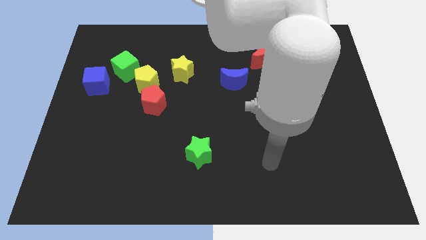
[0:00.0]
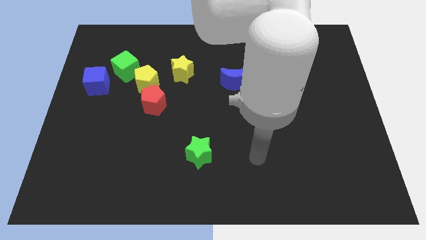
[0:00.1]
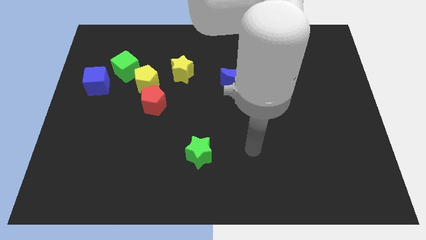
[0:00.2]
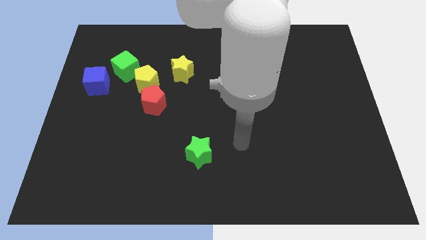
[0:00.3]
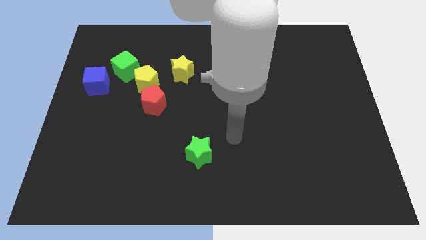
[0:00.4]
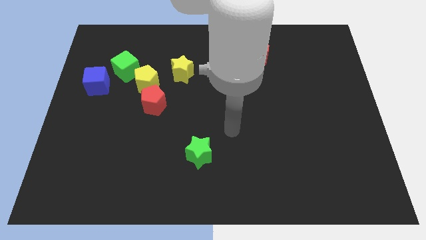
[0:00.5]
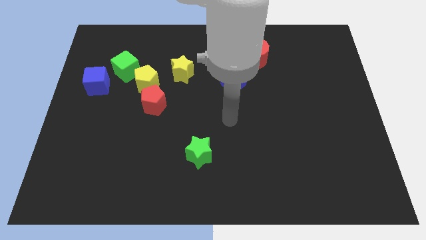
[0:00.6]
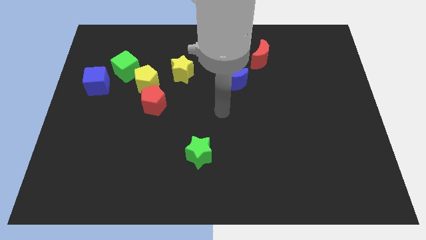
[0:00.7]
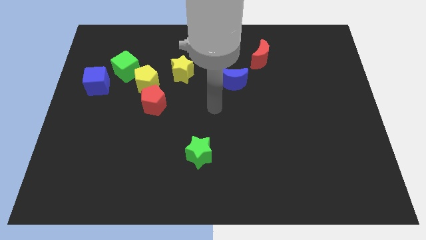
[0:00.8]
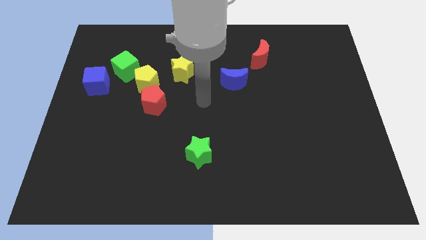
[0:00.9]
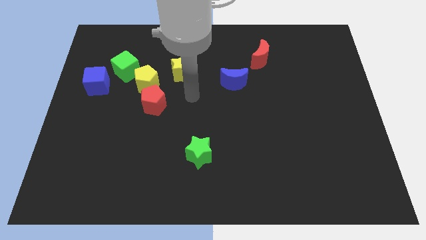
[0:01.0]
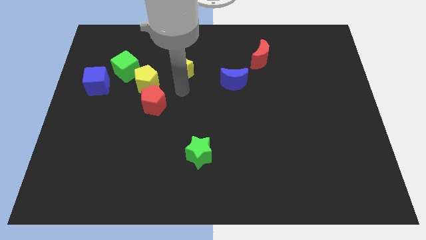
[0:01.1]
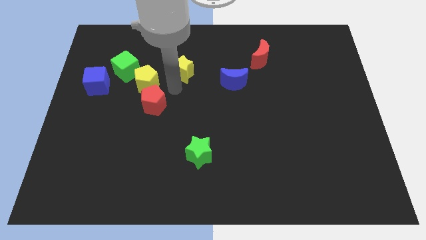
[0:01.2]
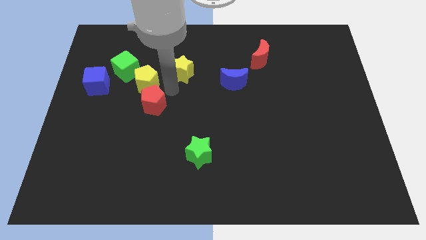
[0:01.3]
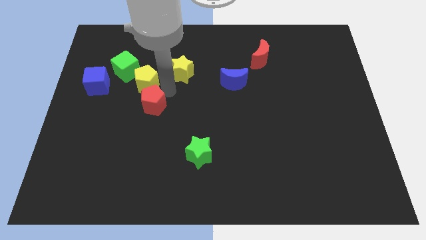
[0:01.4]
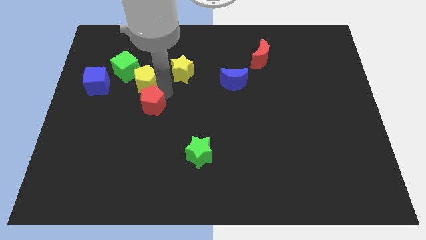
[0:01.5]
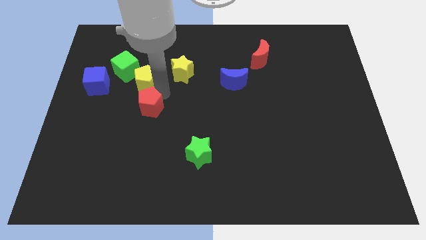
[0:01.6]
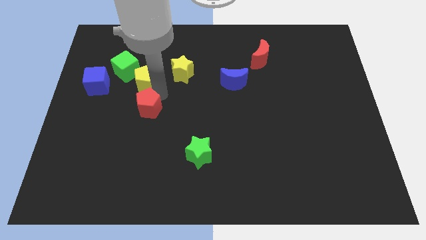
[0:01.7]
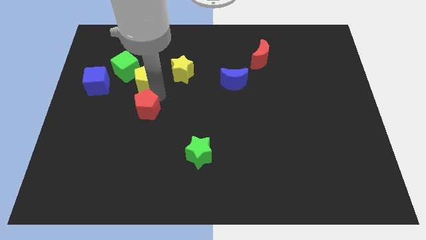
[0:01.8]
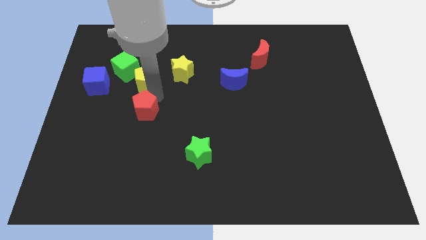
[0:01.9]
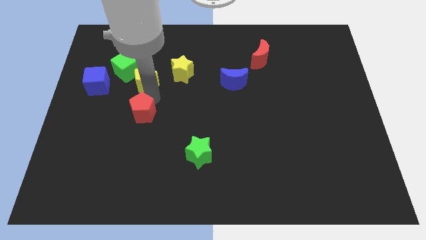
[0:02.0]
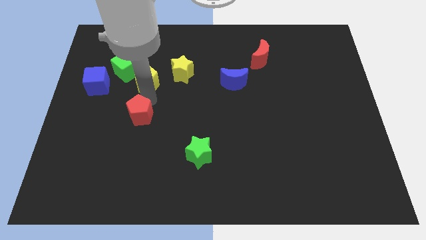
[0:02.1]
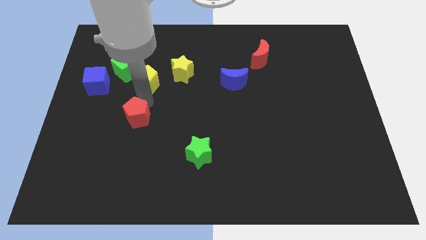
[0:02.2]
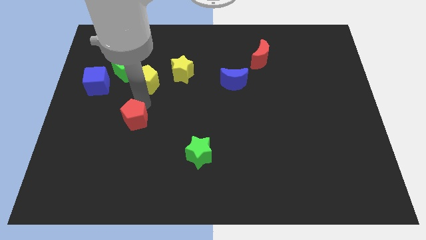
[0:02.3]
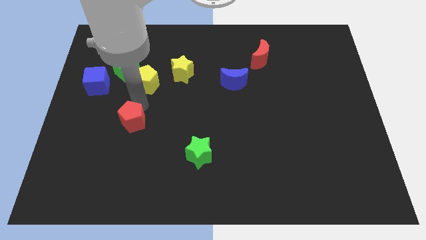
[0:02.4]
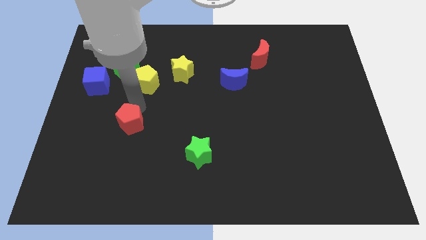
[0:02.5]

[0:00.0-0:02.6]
push the red pentagon downwards and to the left slightly

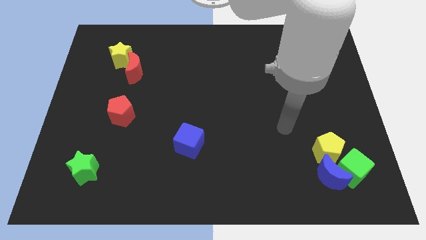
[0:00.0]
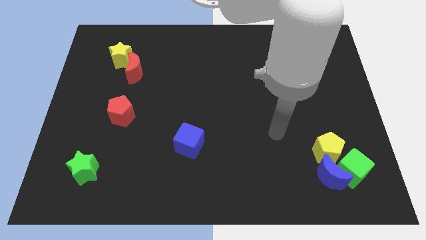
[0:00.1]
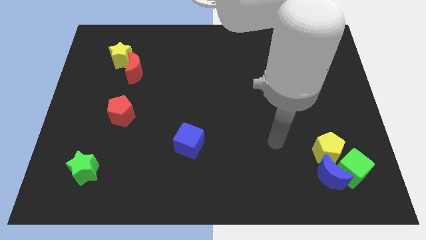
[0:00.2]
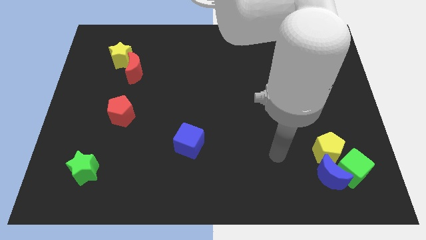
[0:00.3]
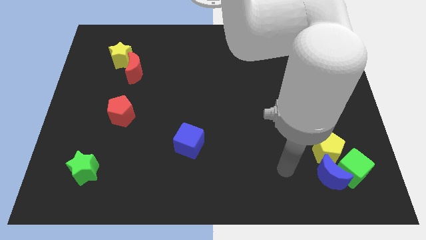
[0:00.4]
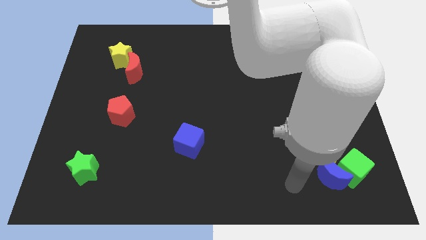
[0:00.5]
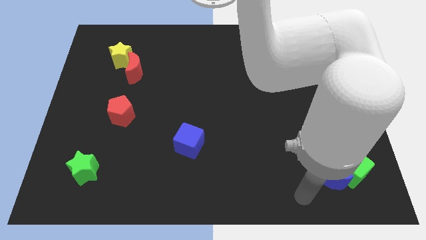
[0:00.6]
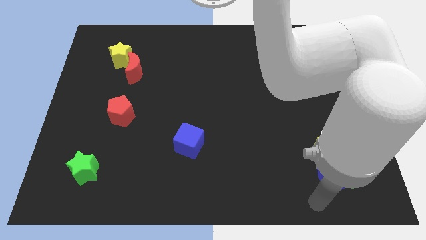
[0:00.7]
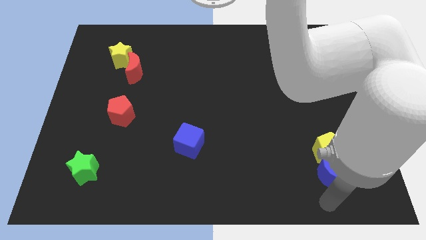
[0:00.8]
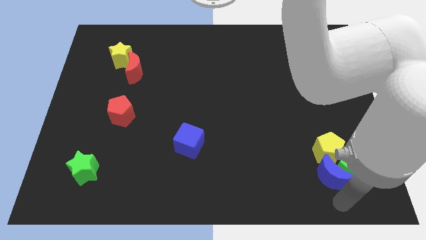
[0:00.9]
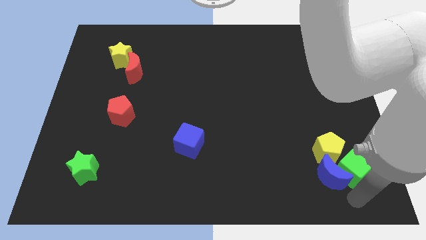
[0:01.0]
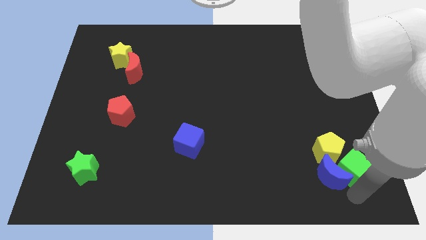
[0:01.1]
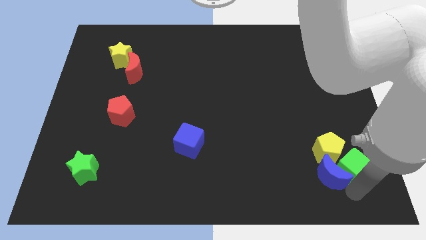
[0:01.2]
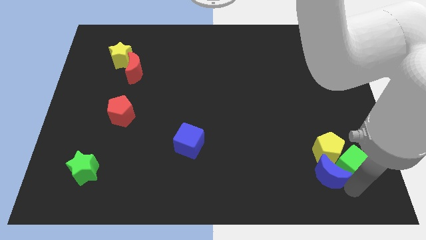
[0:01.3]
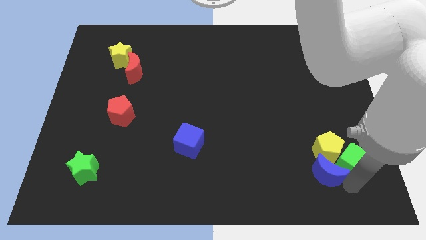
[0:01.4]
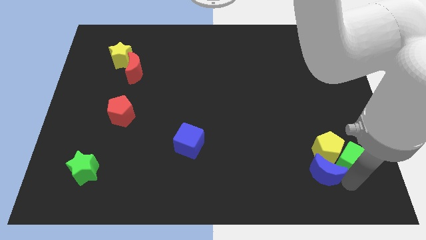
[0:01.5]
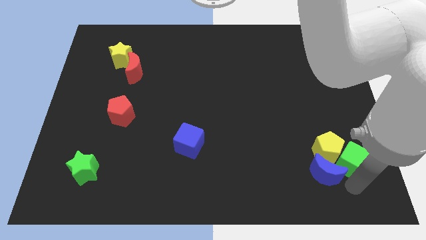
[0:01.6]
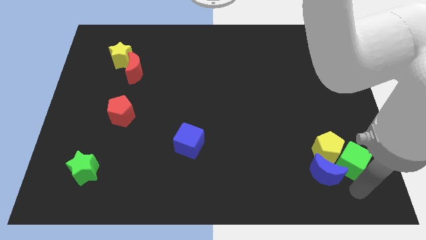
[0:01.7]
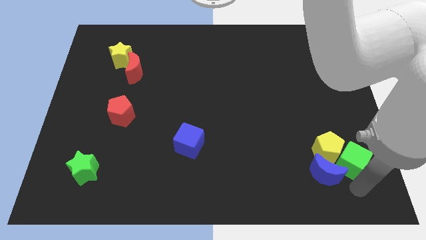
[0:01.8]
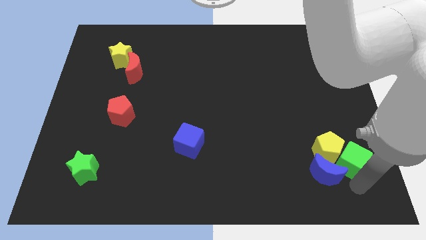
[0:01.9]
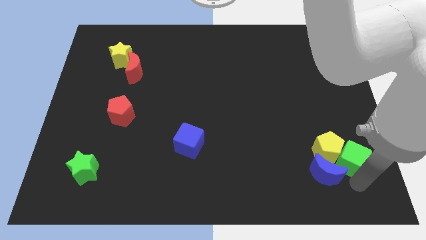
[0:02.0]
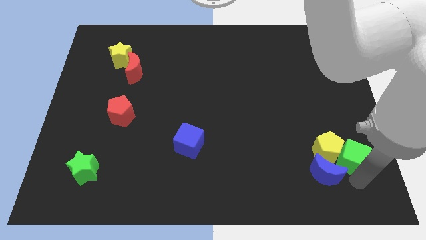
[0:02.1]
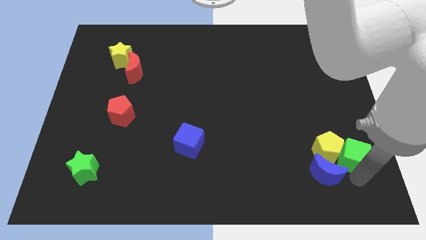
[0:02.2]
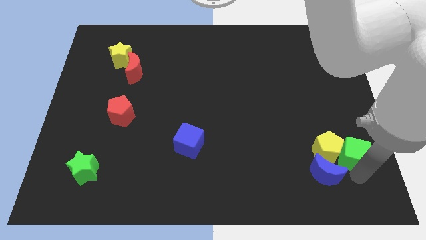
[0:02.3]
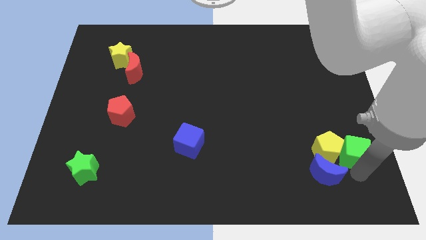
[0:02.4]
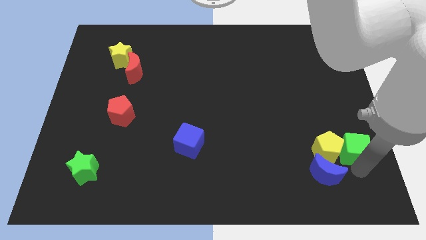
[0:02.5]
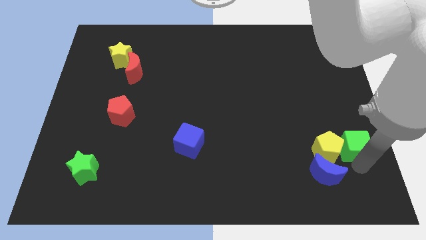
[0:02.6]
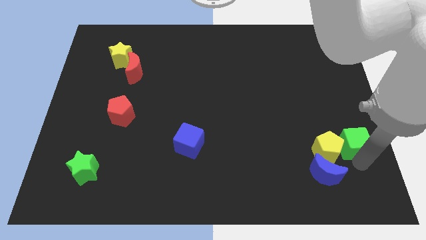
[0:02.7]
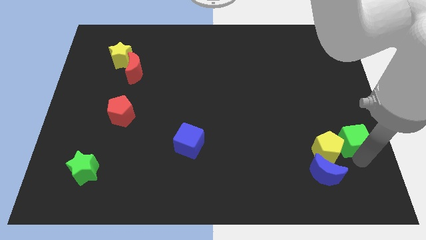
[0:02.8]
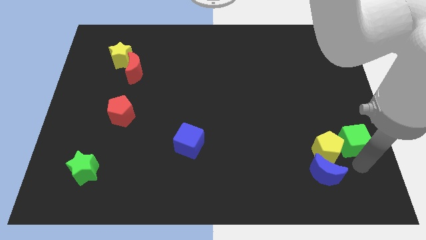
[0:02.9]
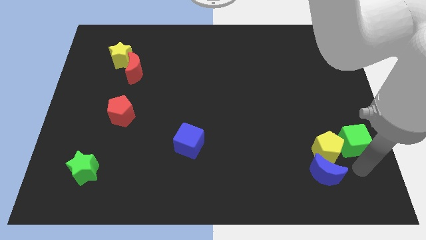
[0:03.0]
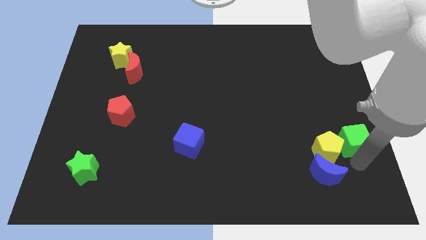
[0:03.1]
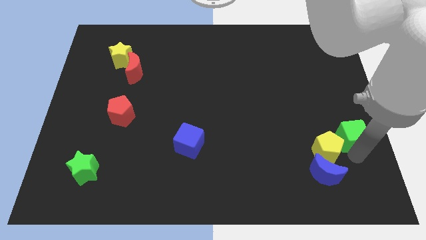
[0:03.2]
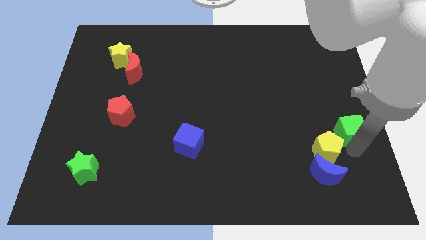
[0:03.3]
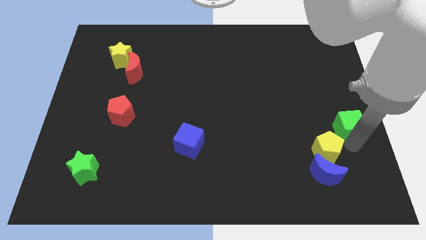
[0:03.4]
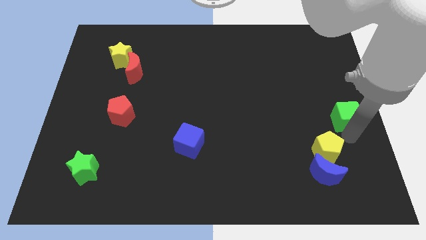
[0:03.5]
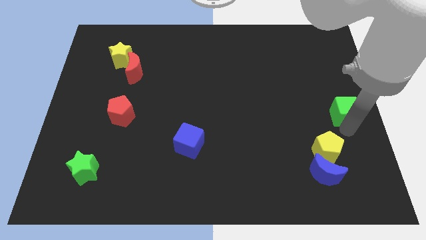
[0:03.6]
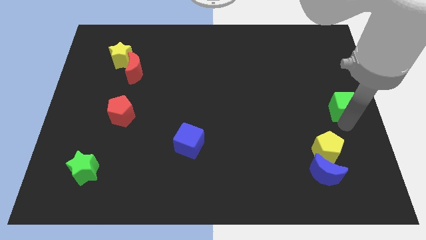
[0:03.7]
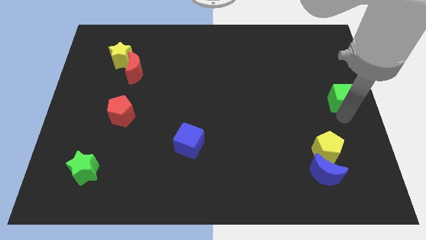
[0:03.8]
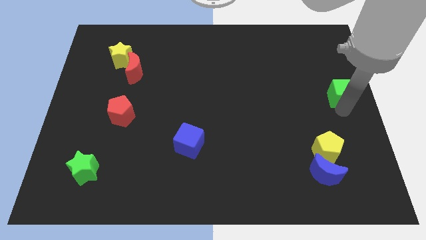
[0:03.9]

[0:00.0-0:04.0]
push the green cube upwards

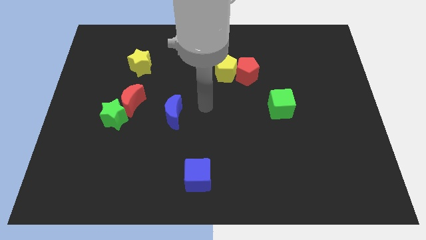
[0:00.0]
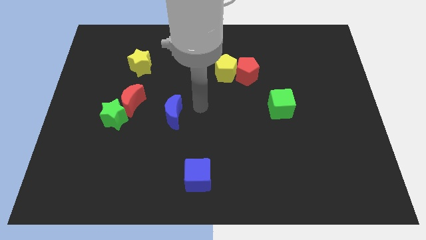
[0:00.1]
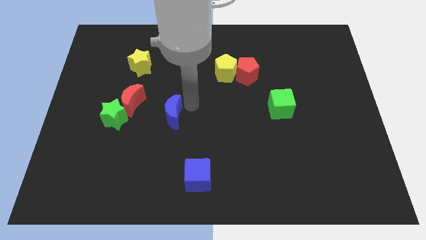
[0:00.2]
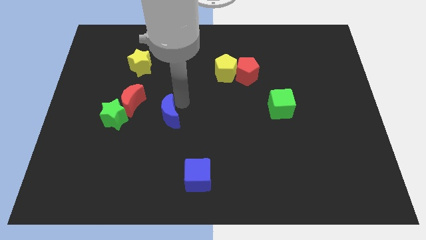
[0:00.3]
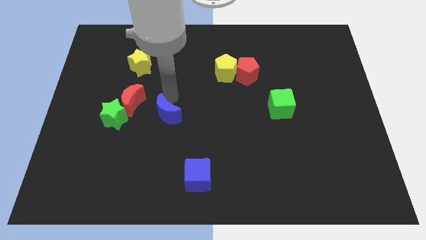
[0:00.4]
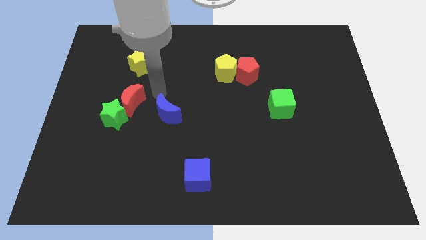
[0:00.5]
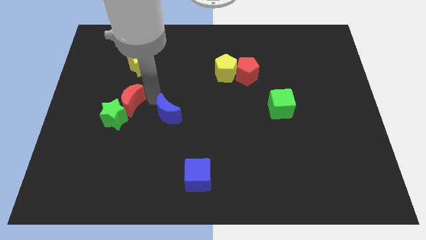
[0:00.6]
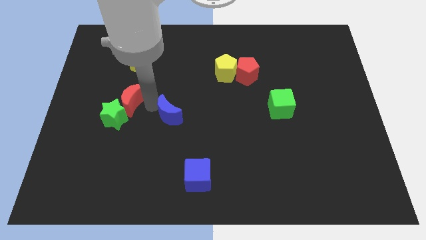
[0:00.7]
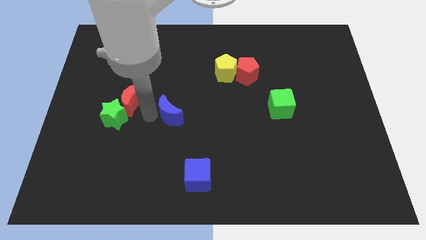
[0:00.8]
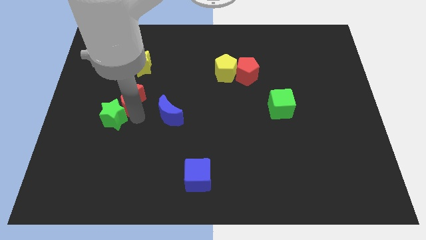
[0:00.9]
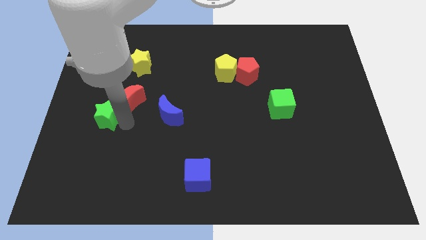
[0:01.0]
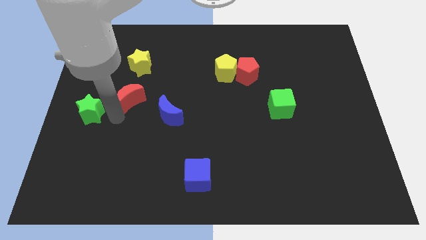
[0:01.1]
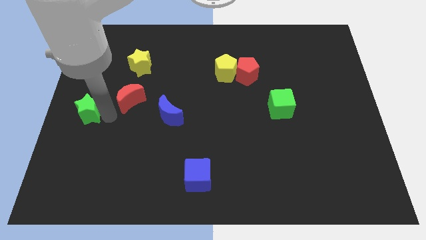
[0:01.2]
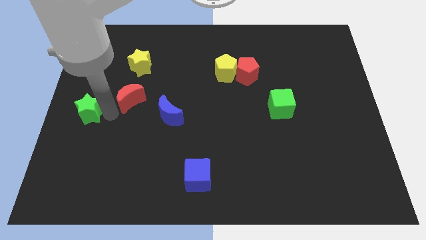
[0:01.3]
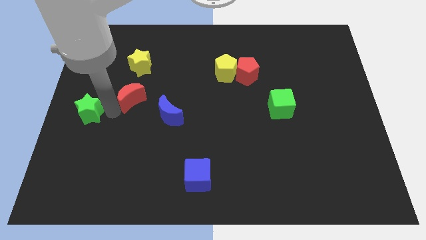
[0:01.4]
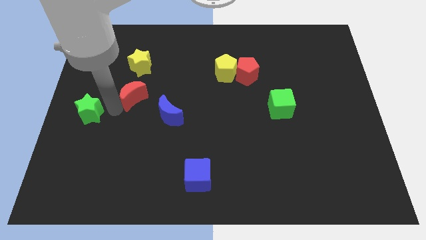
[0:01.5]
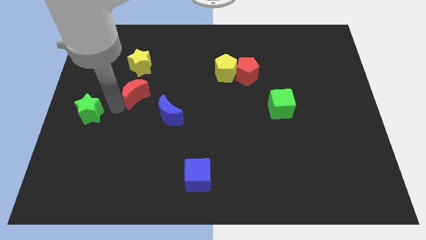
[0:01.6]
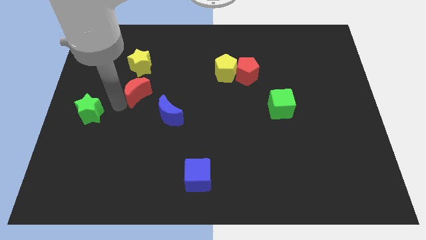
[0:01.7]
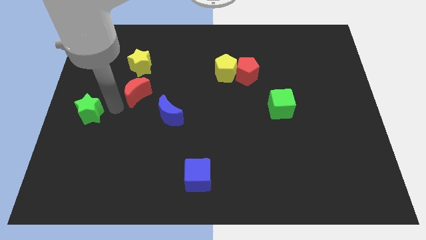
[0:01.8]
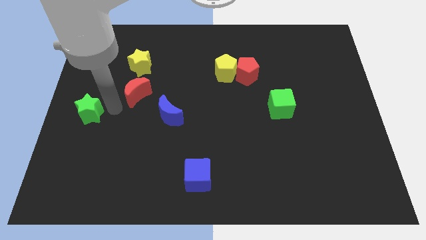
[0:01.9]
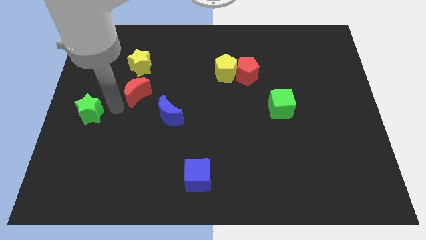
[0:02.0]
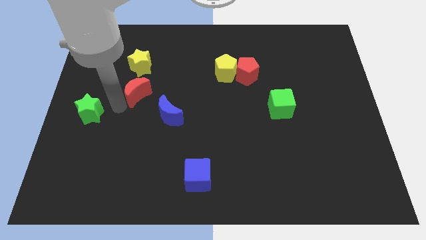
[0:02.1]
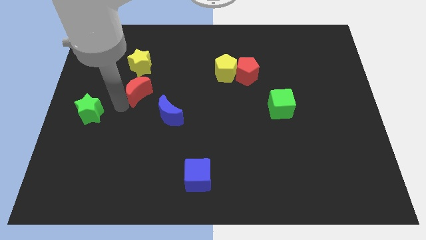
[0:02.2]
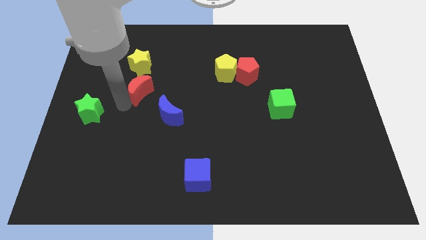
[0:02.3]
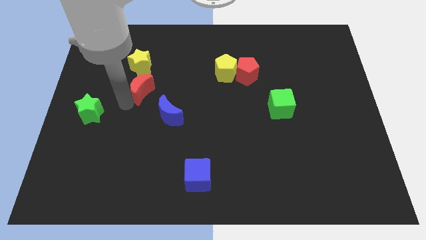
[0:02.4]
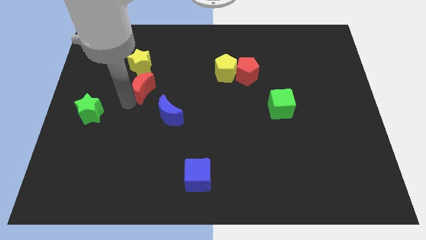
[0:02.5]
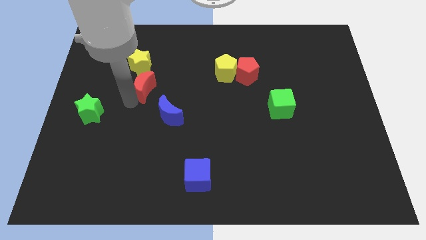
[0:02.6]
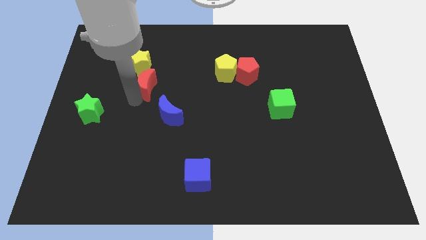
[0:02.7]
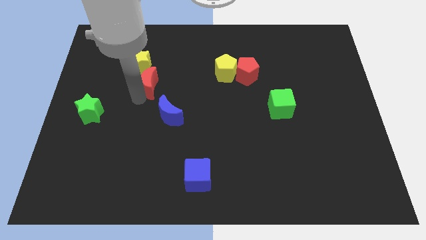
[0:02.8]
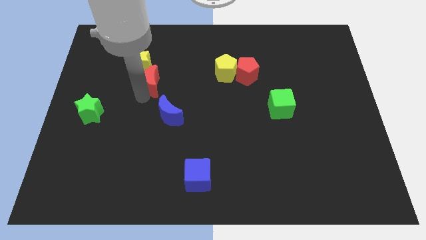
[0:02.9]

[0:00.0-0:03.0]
slide the red moon a bit diagonally upwards and to the right
